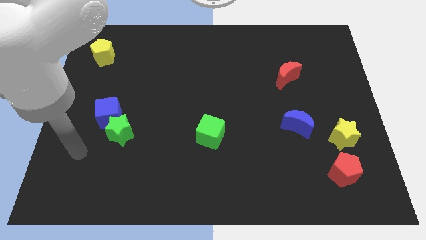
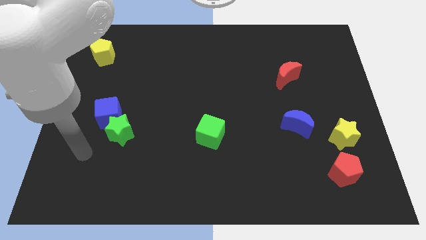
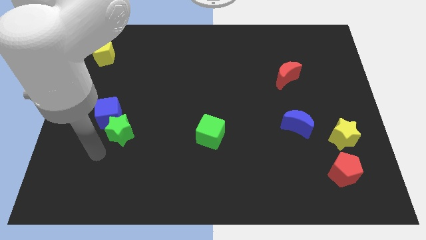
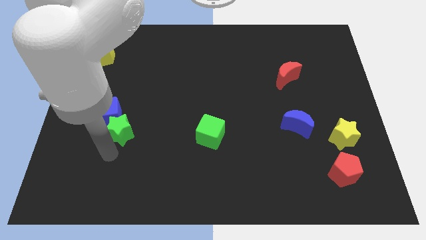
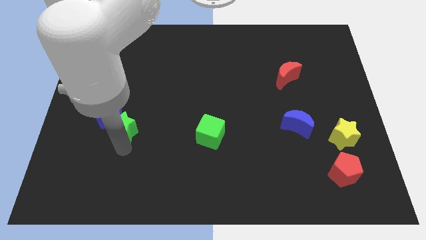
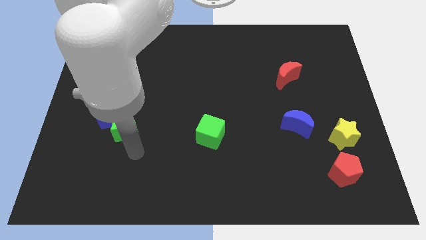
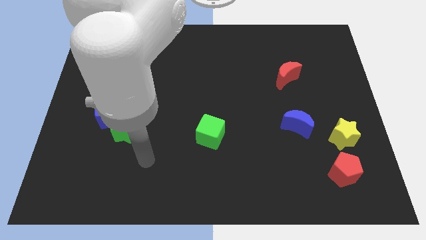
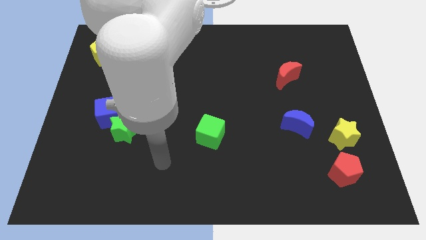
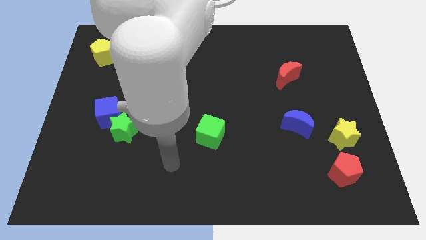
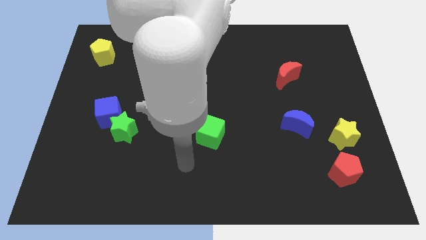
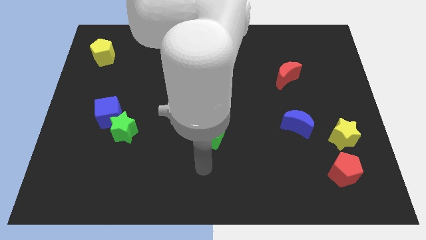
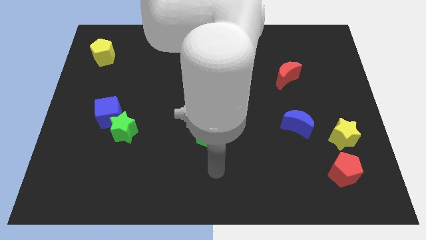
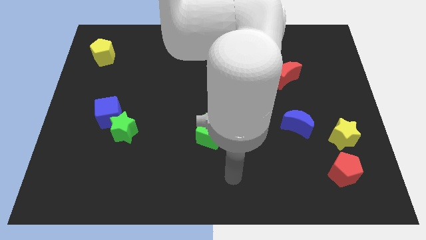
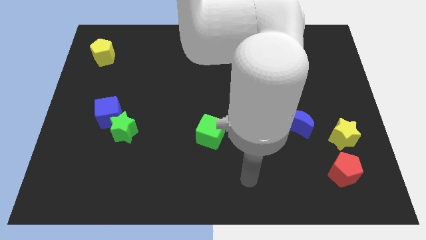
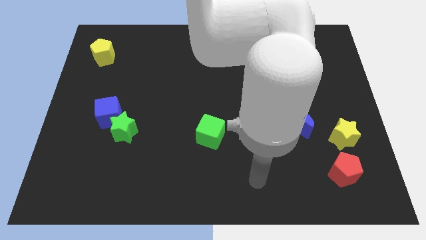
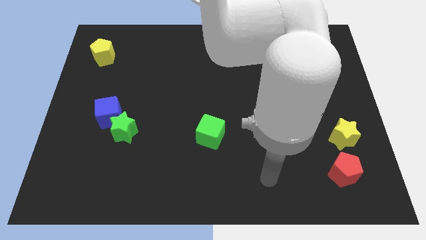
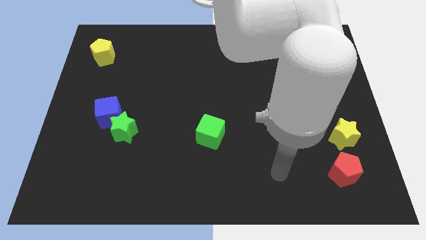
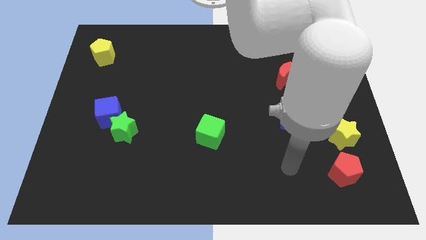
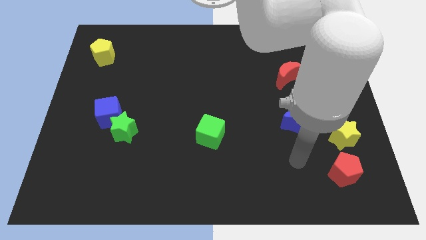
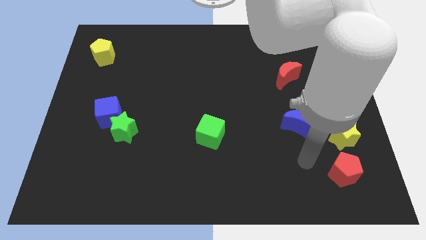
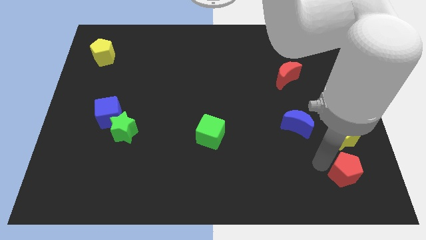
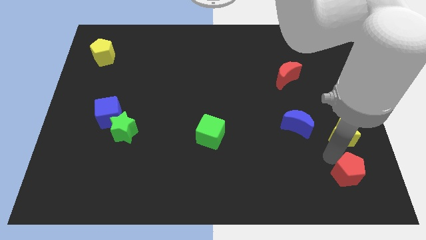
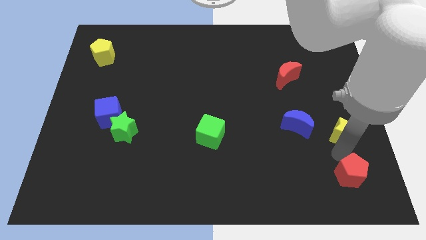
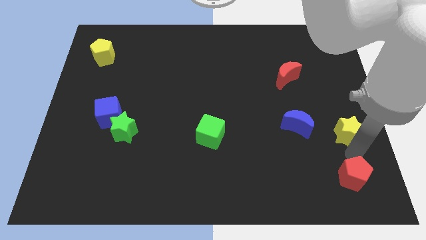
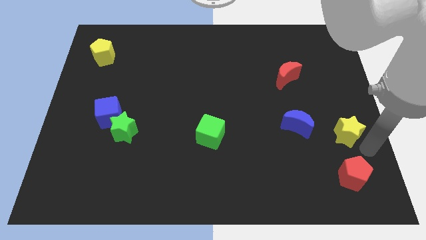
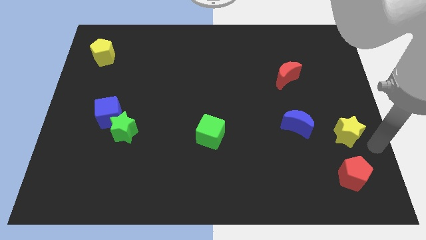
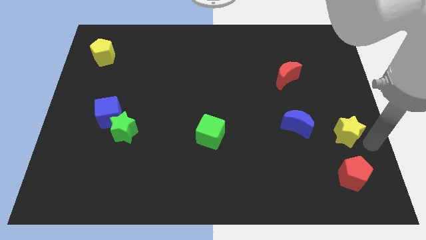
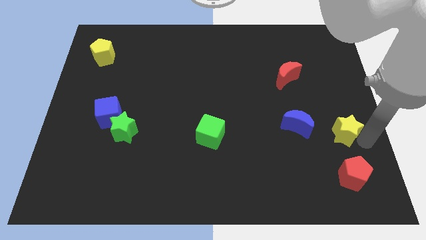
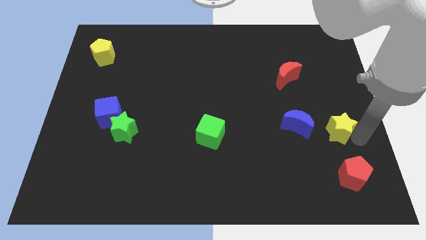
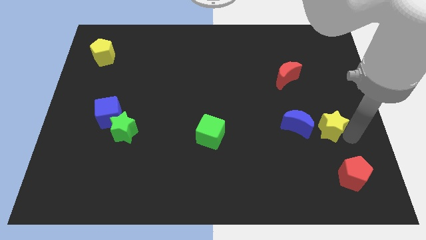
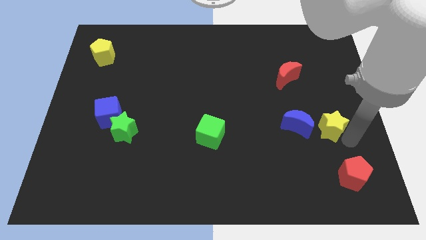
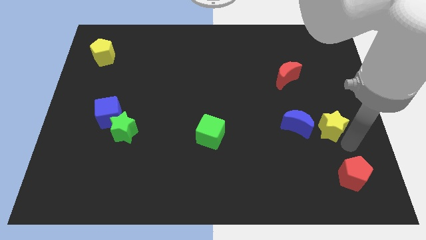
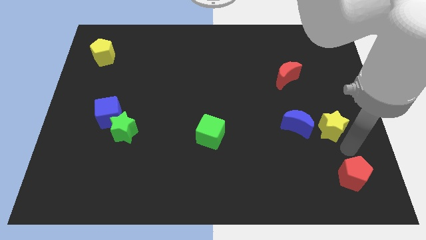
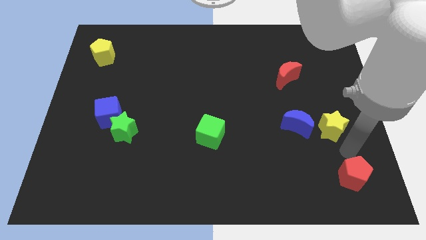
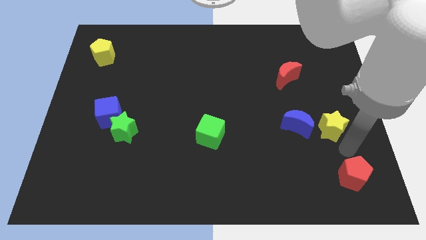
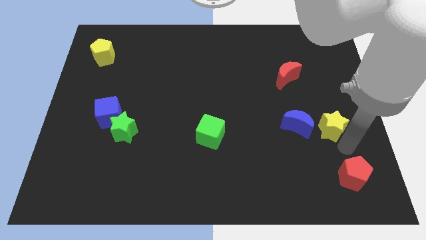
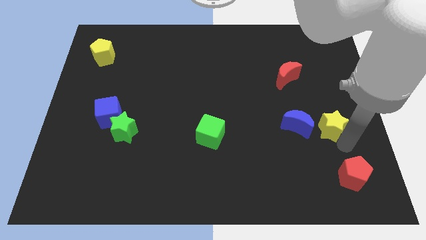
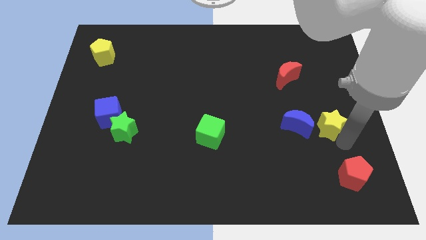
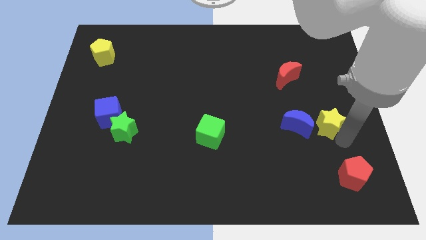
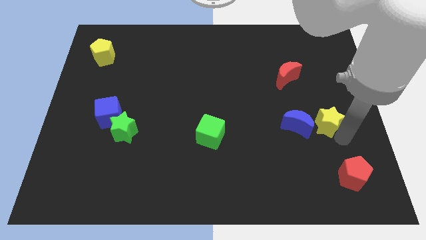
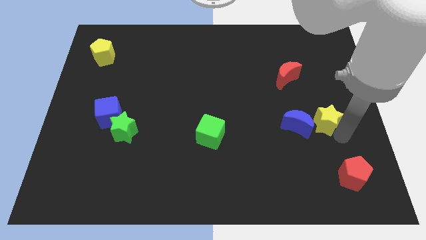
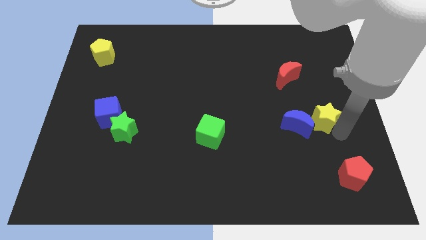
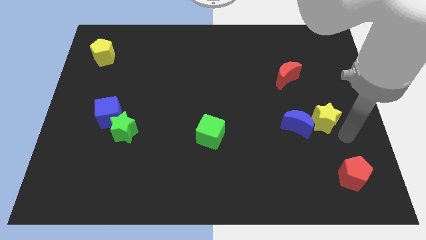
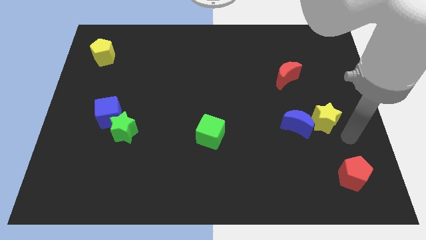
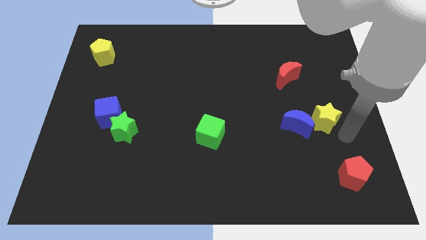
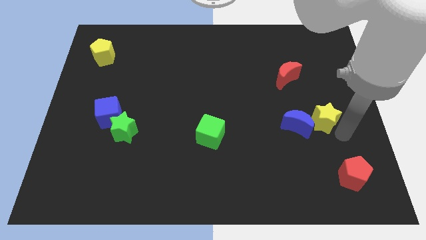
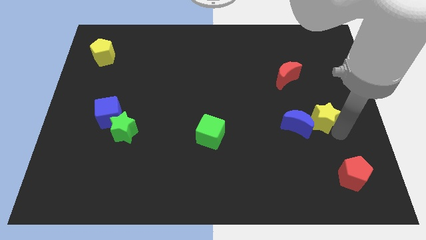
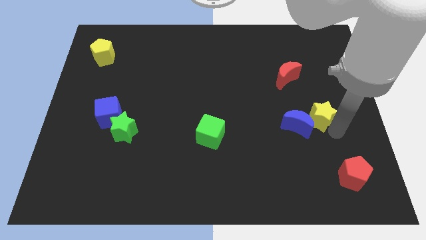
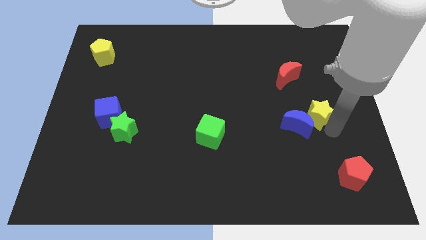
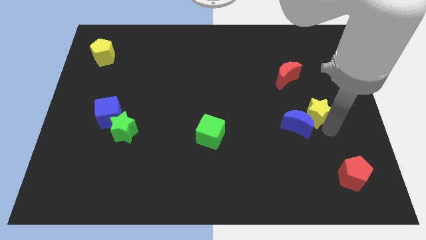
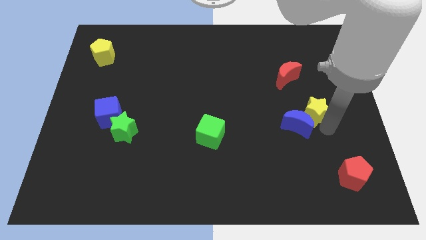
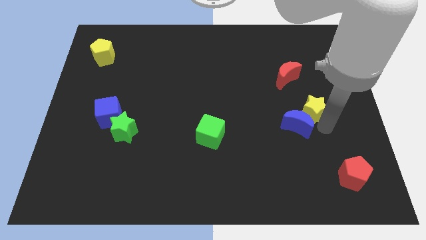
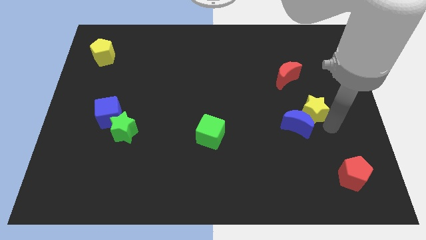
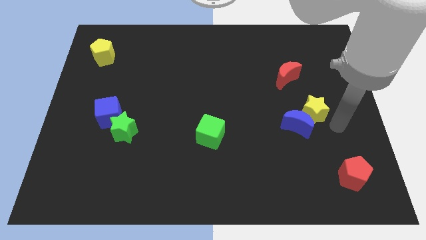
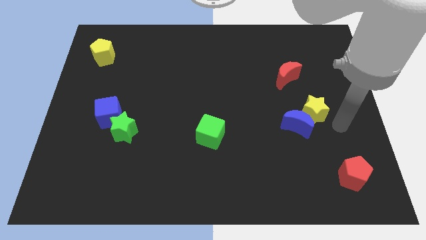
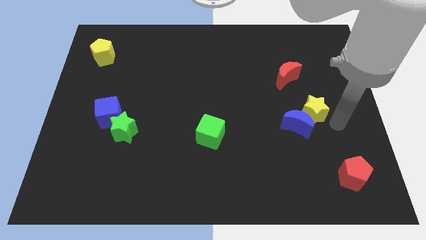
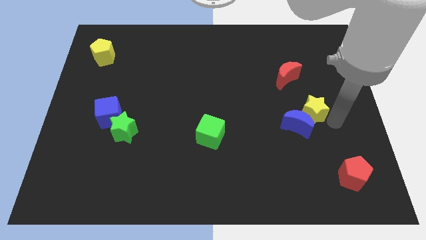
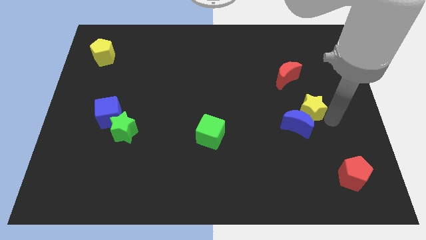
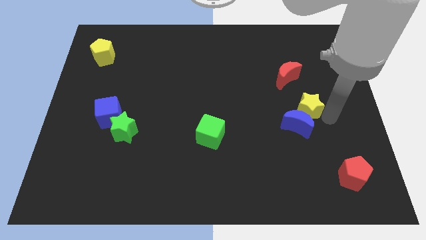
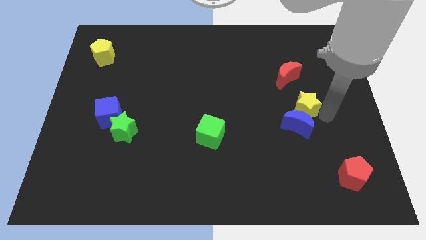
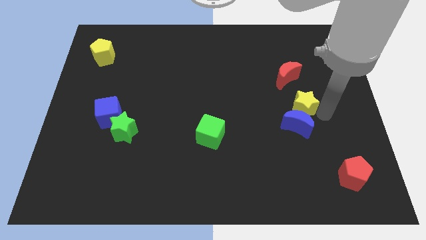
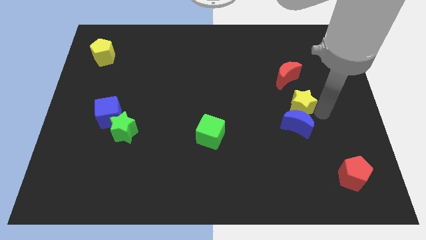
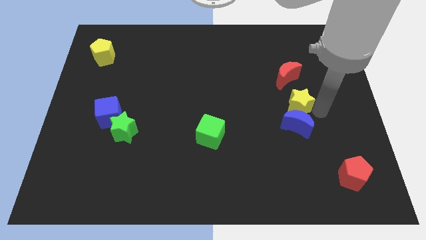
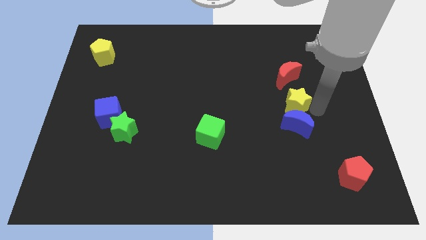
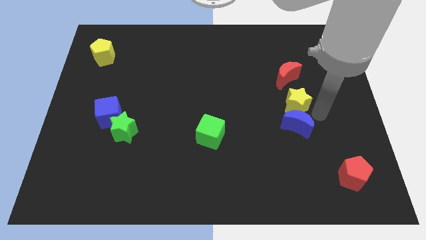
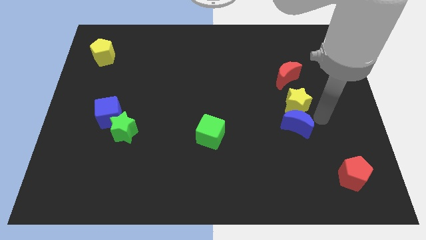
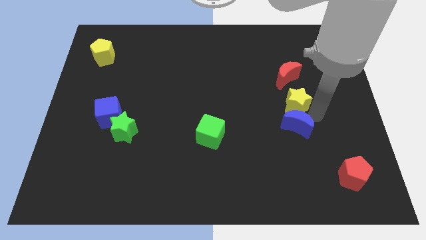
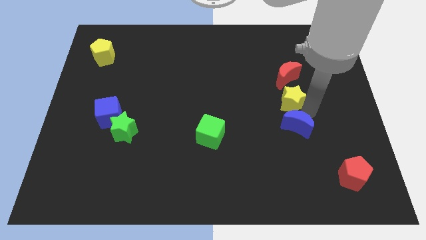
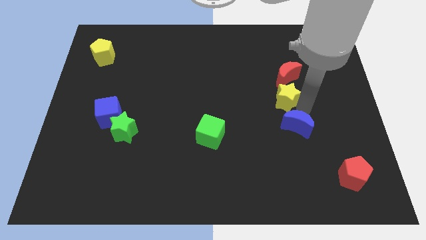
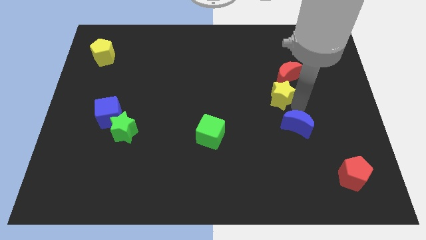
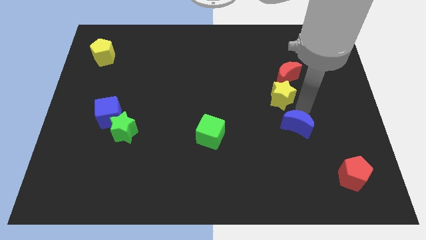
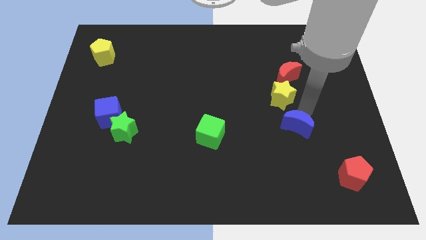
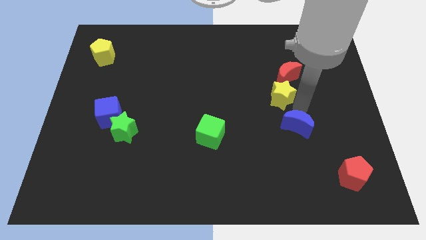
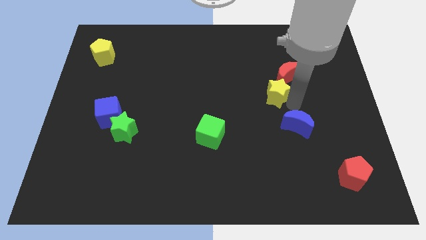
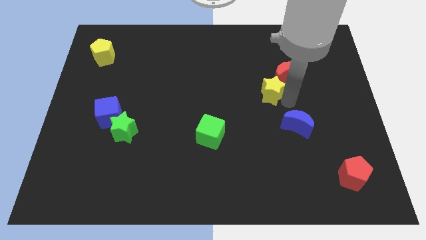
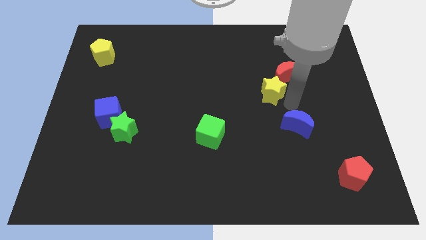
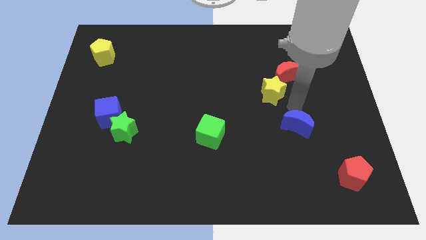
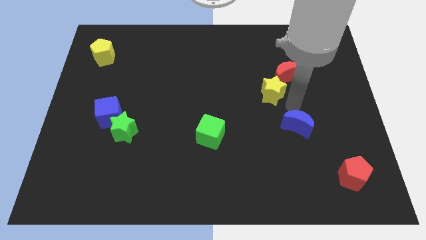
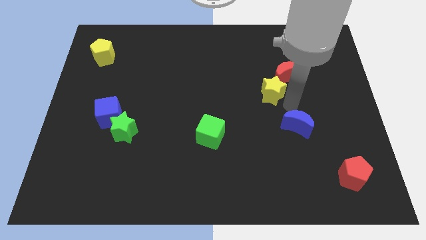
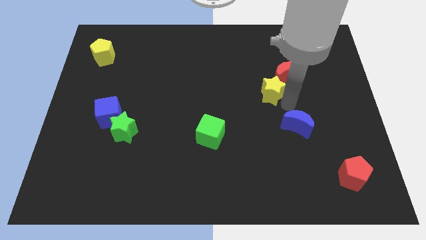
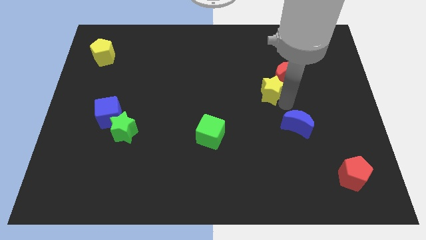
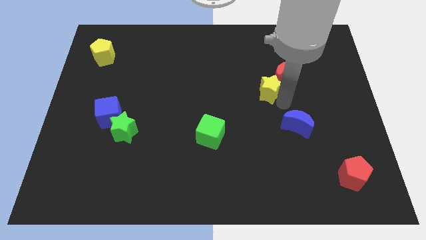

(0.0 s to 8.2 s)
slide the yellow star upwards and to the left diagonally
